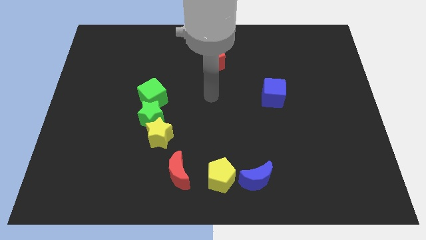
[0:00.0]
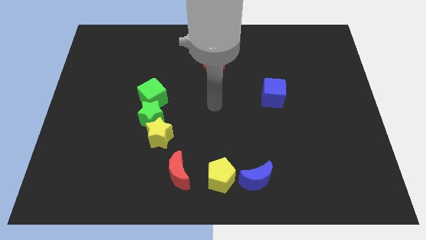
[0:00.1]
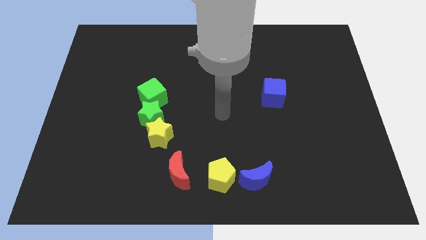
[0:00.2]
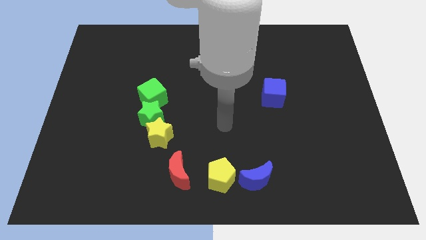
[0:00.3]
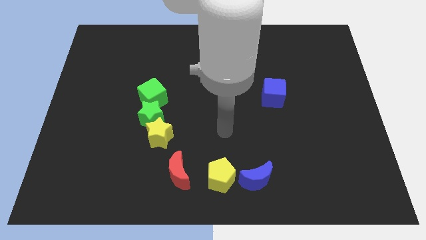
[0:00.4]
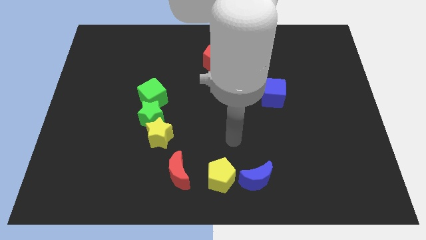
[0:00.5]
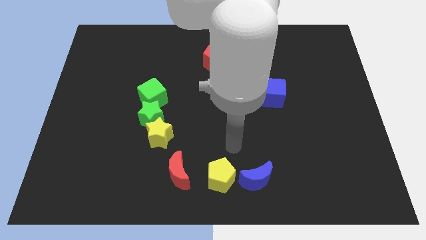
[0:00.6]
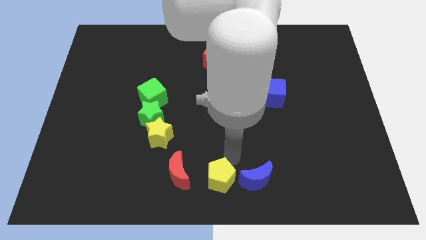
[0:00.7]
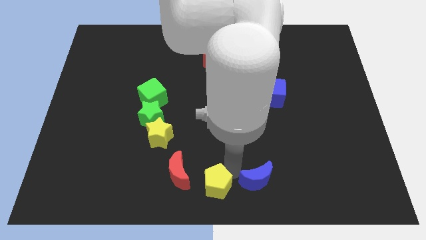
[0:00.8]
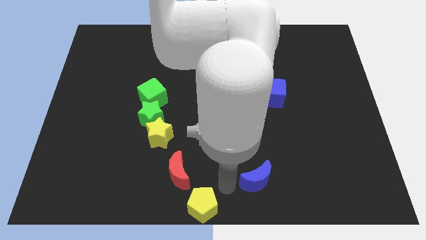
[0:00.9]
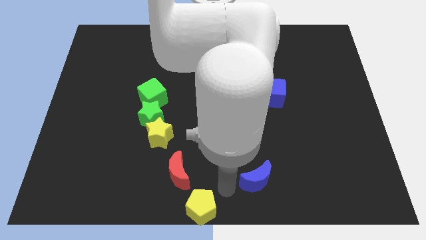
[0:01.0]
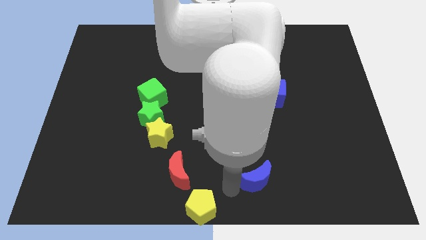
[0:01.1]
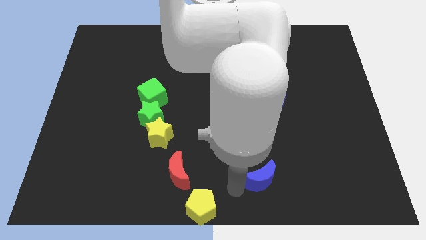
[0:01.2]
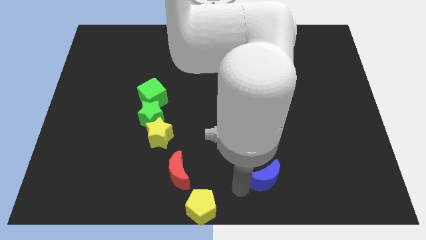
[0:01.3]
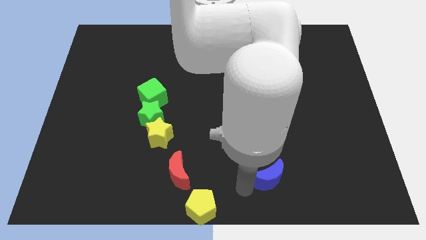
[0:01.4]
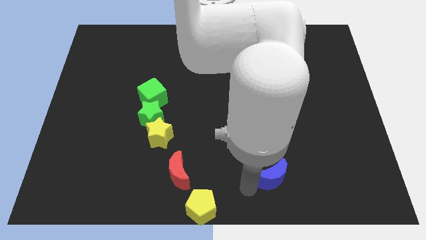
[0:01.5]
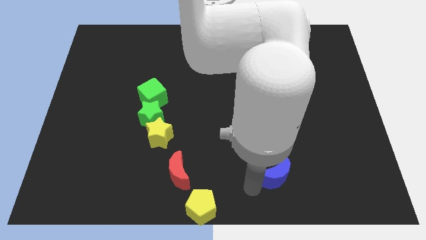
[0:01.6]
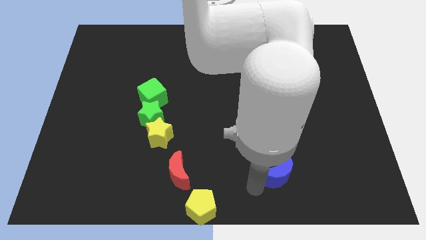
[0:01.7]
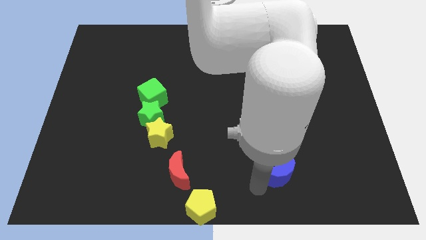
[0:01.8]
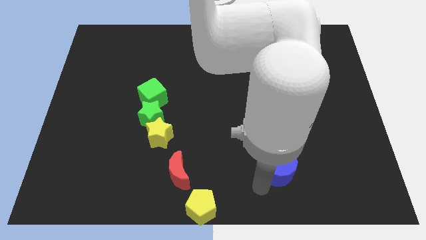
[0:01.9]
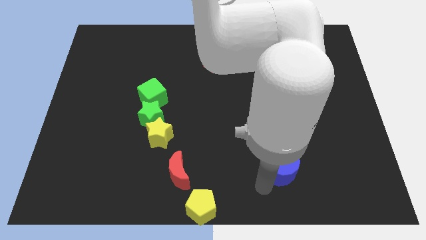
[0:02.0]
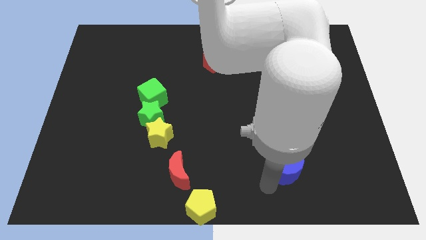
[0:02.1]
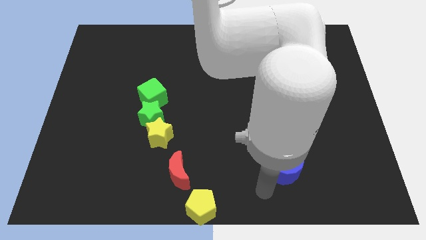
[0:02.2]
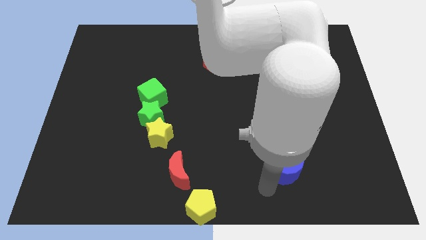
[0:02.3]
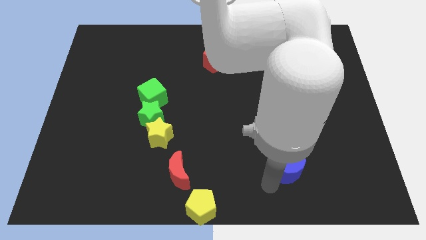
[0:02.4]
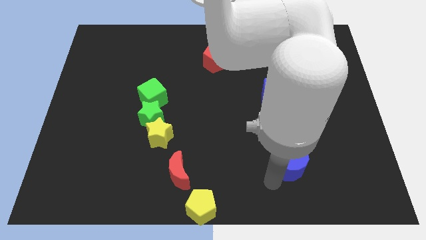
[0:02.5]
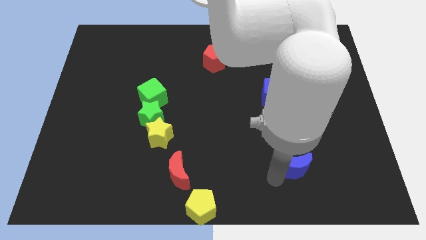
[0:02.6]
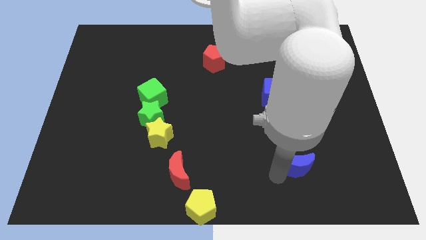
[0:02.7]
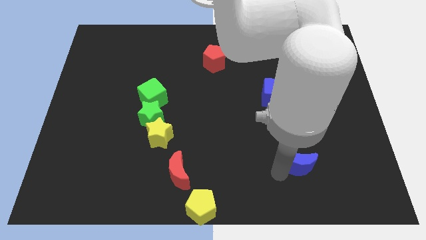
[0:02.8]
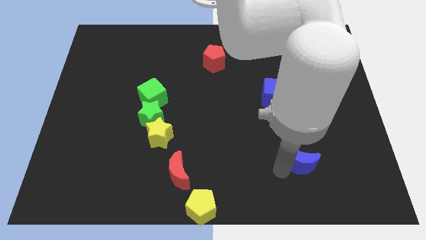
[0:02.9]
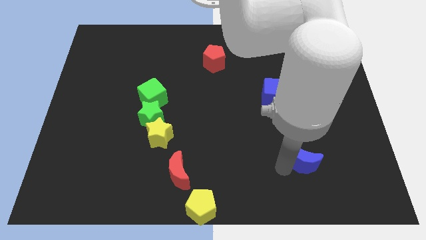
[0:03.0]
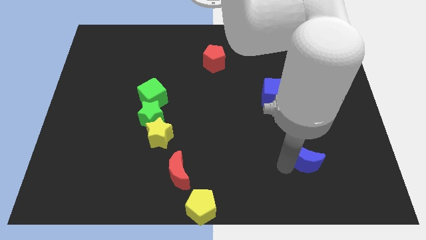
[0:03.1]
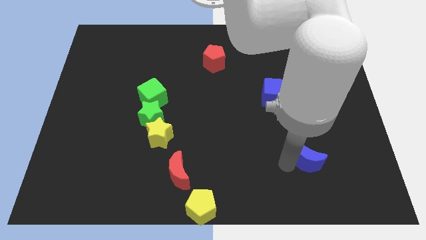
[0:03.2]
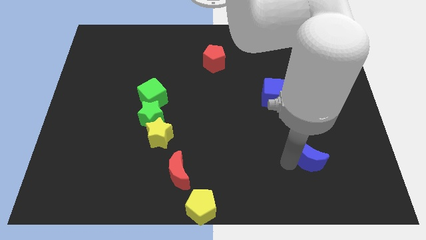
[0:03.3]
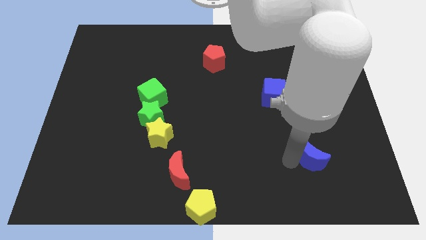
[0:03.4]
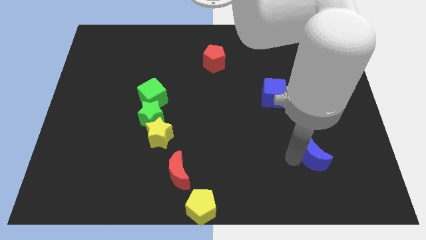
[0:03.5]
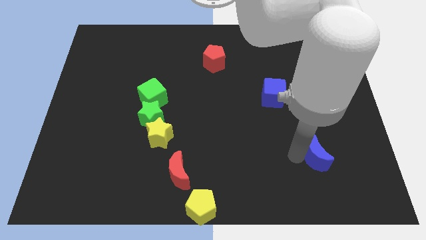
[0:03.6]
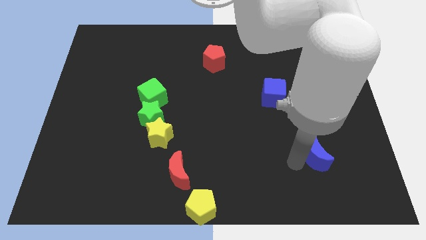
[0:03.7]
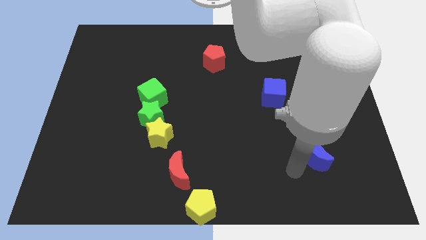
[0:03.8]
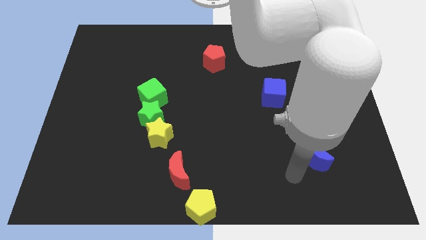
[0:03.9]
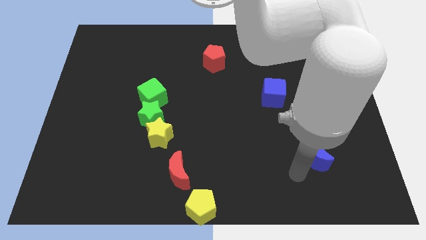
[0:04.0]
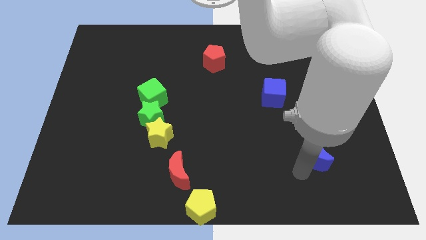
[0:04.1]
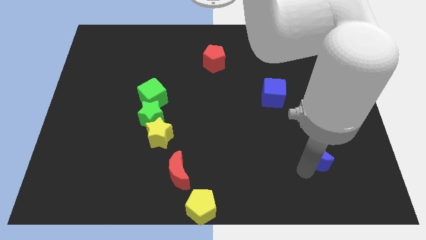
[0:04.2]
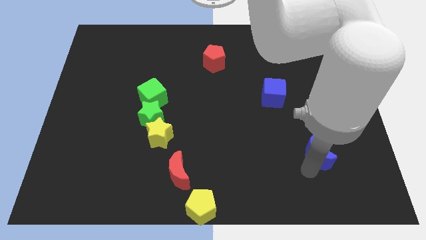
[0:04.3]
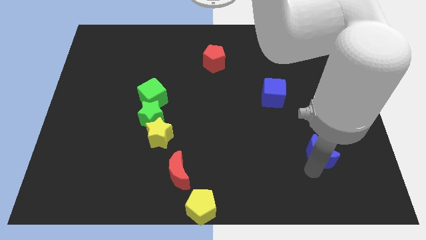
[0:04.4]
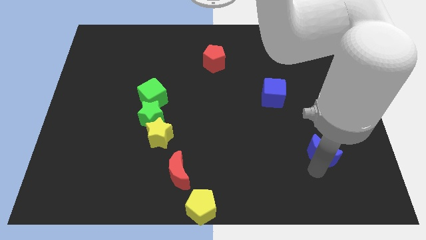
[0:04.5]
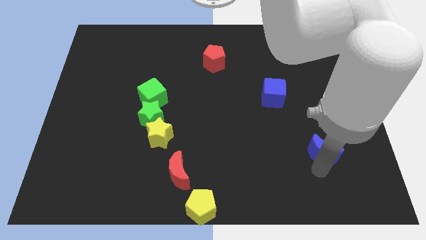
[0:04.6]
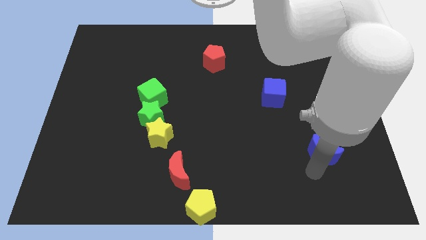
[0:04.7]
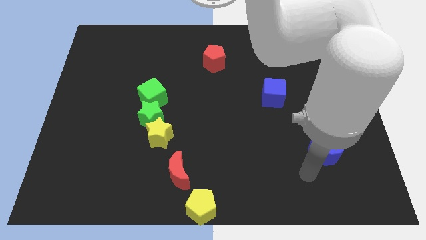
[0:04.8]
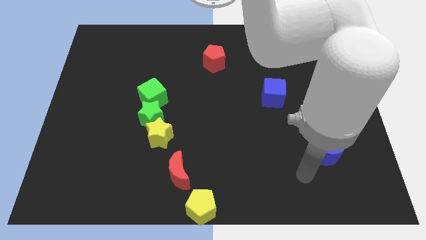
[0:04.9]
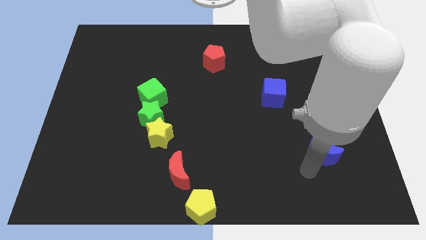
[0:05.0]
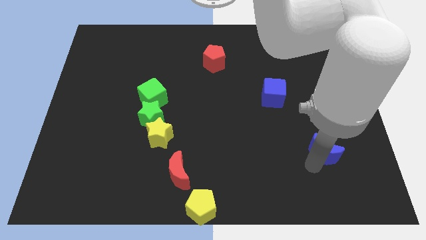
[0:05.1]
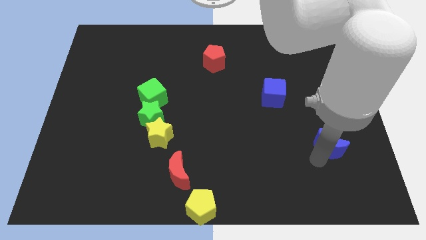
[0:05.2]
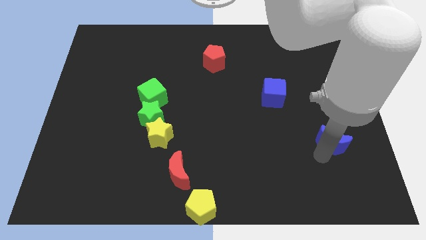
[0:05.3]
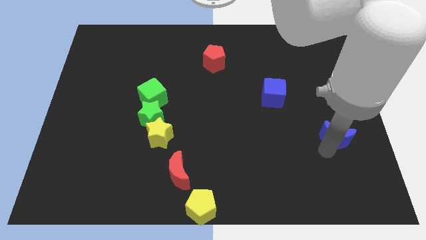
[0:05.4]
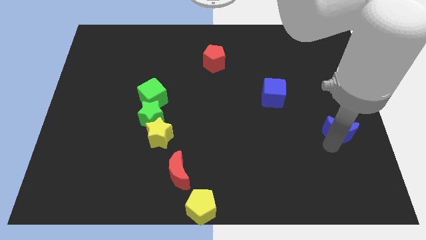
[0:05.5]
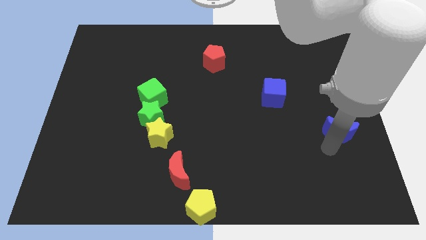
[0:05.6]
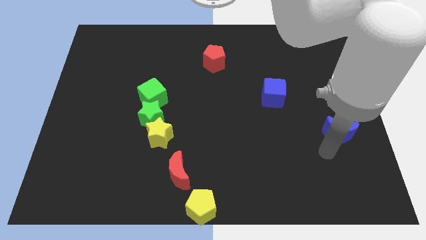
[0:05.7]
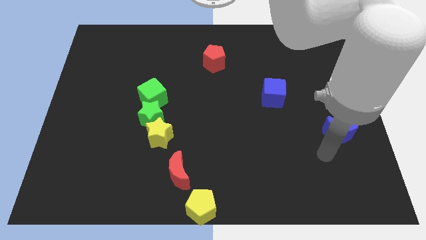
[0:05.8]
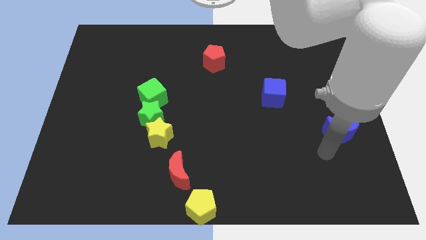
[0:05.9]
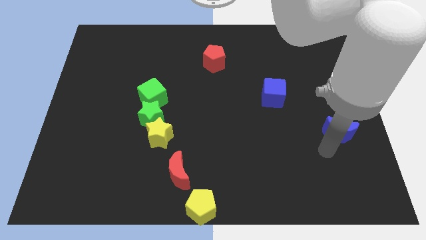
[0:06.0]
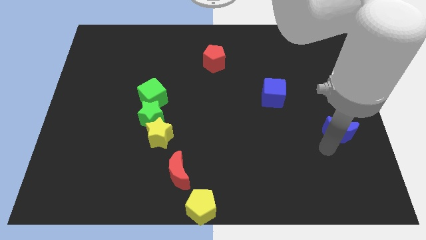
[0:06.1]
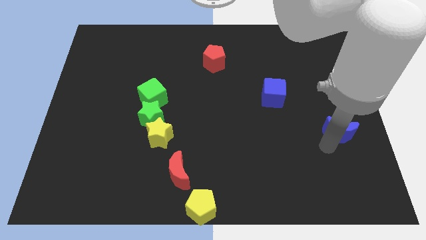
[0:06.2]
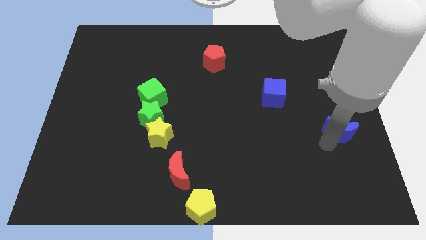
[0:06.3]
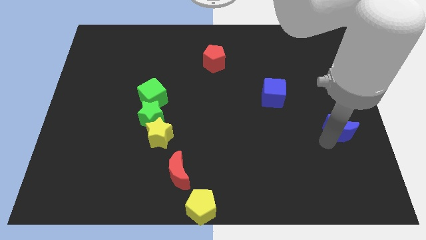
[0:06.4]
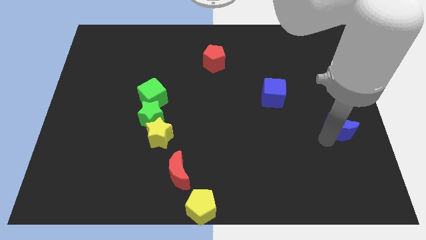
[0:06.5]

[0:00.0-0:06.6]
move the blue moon to the center right
